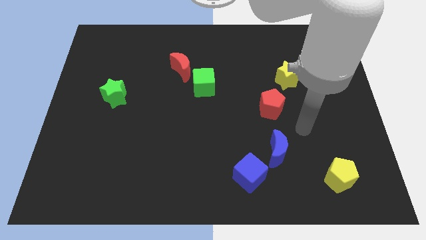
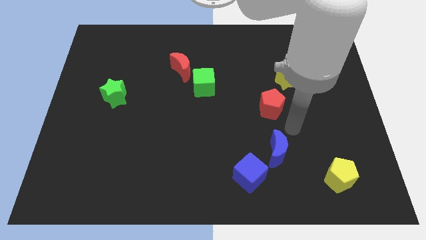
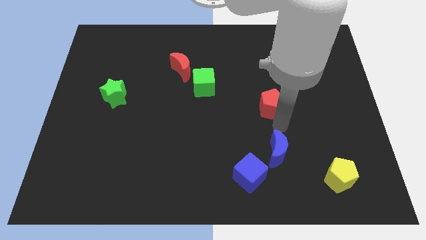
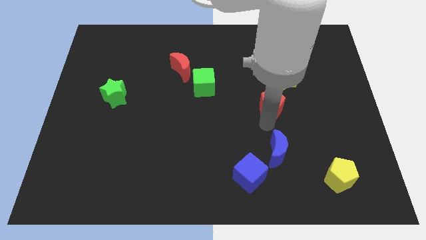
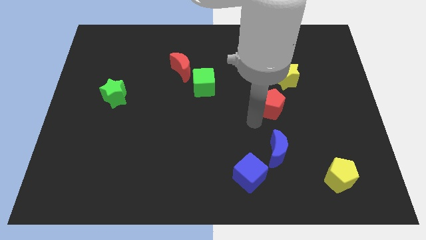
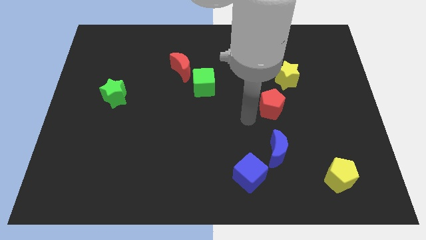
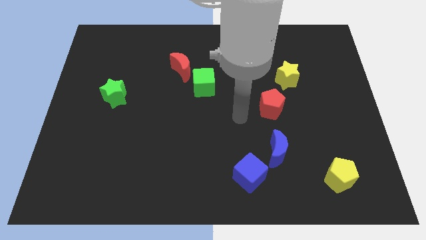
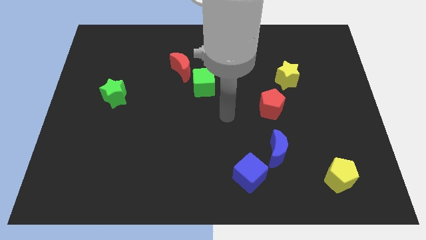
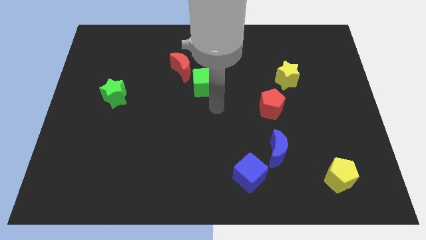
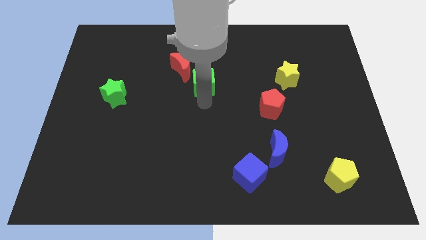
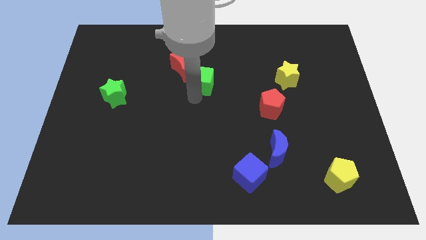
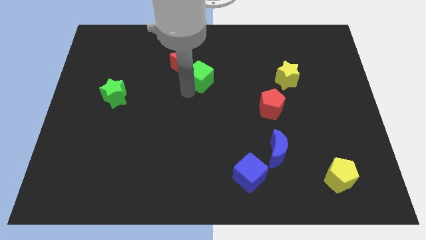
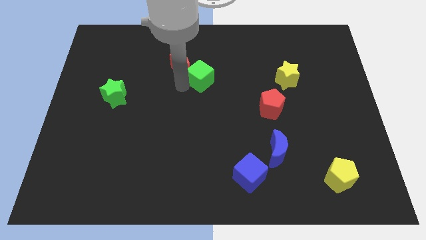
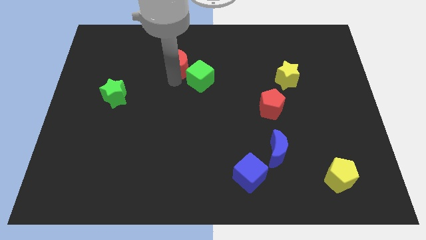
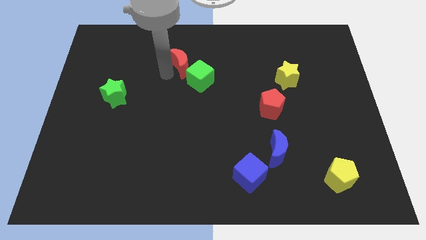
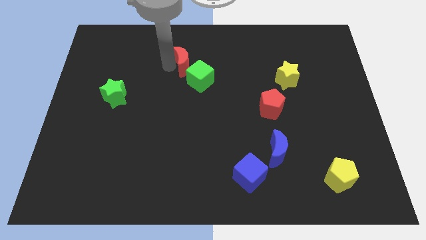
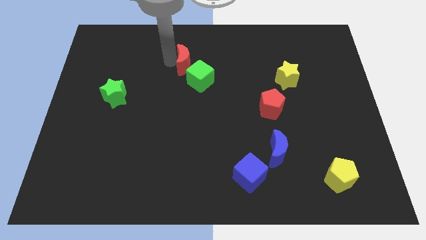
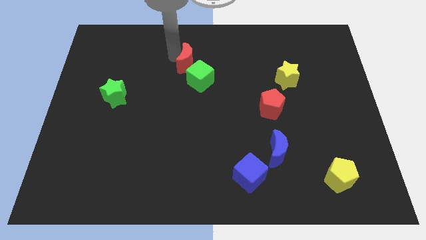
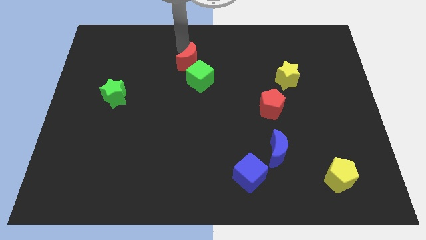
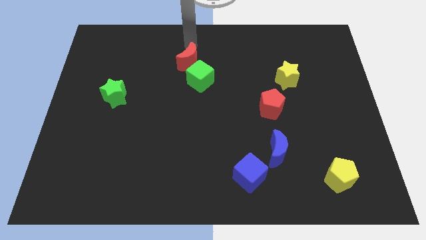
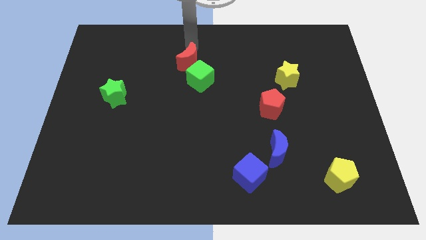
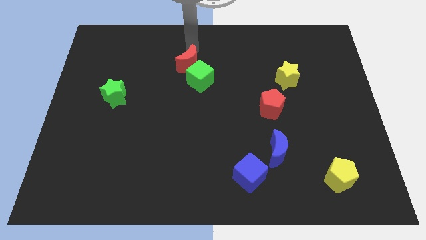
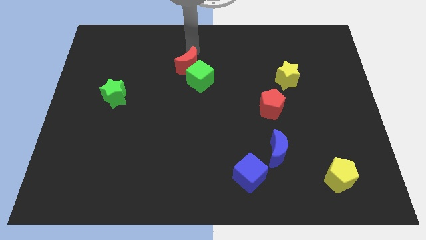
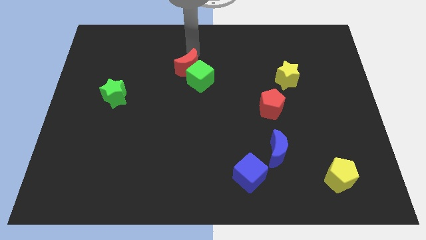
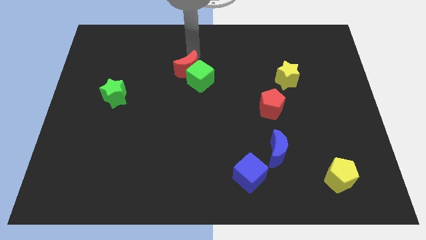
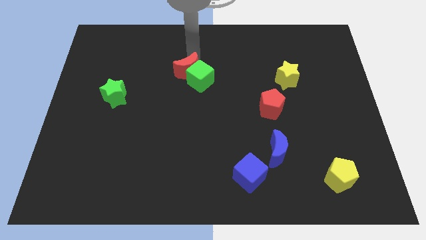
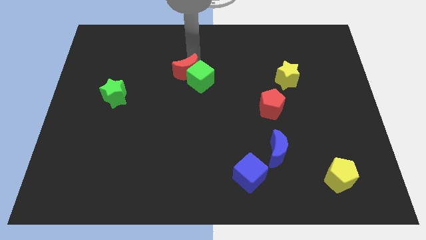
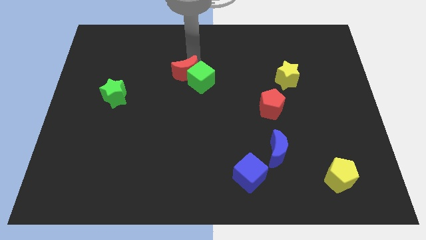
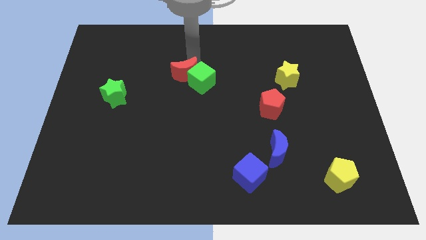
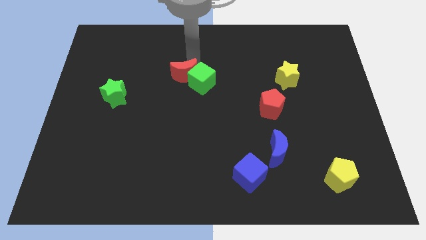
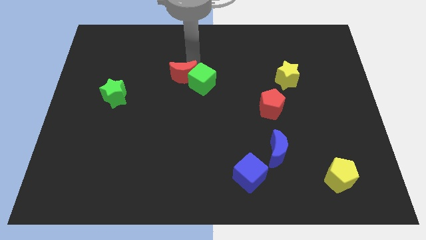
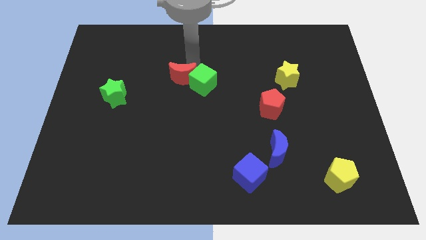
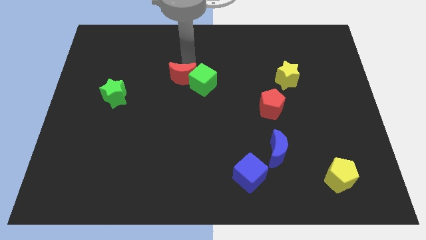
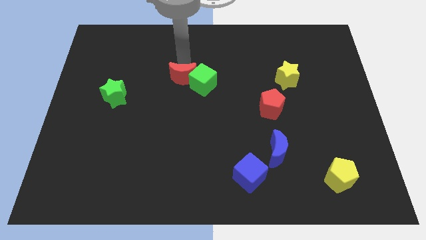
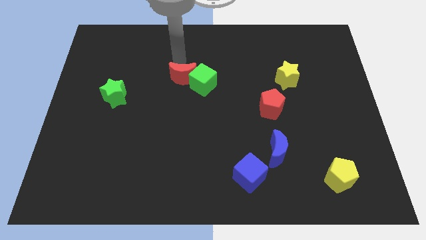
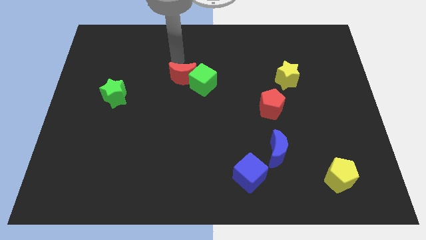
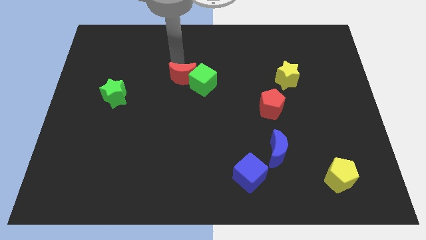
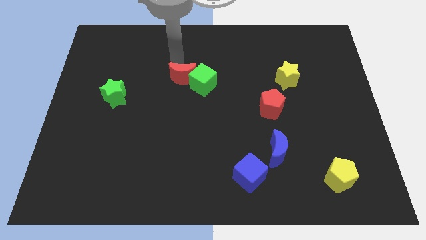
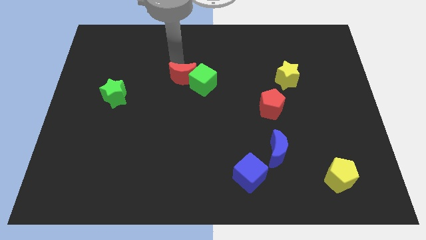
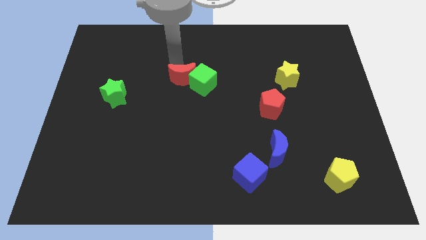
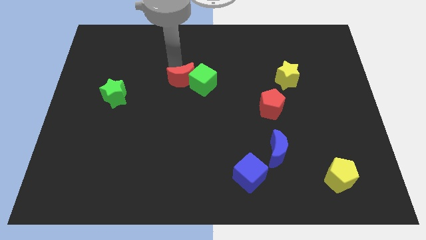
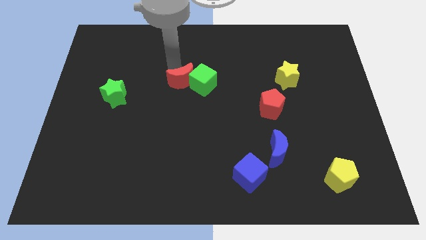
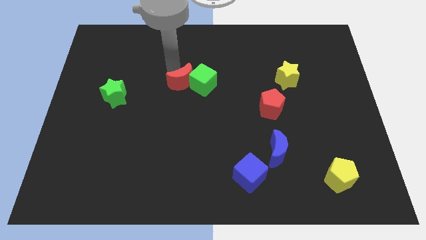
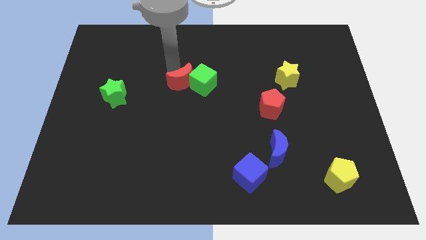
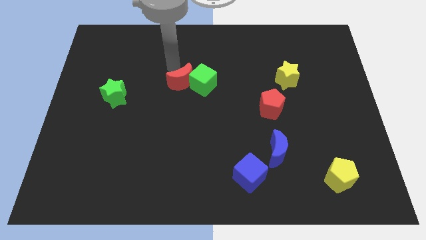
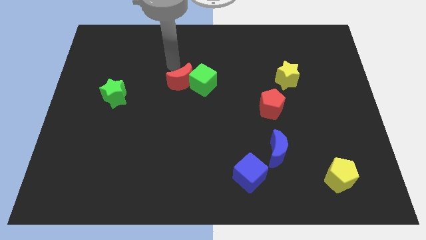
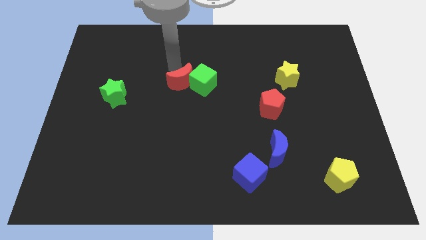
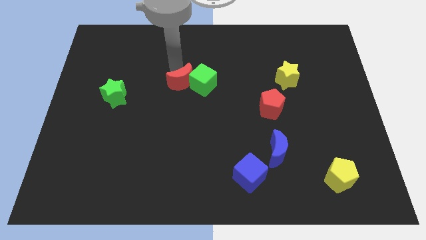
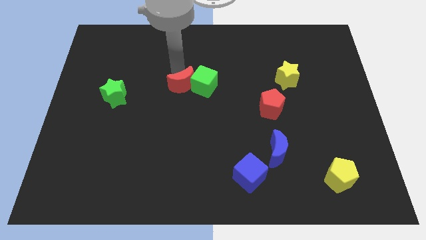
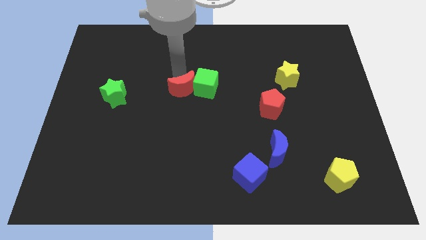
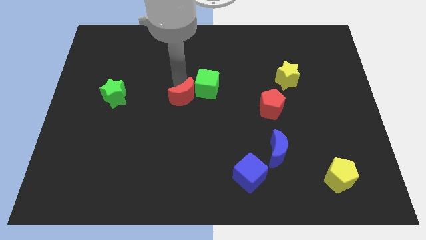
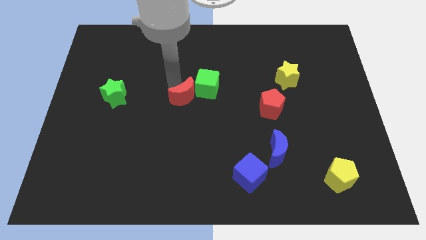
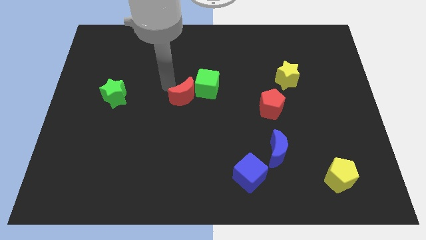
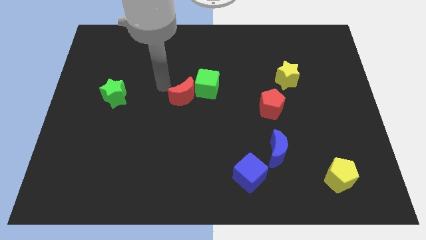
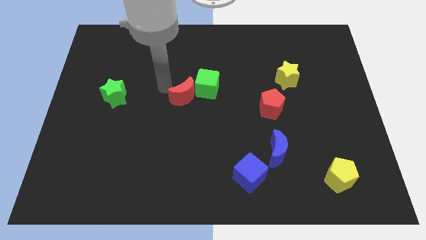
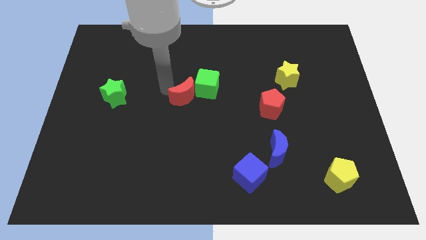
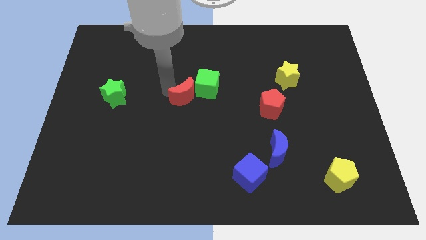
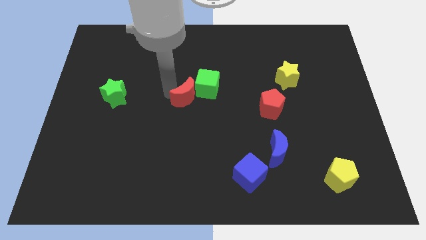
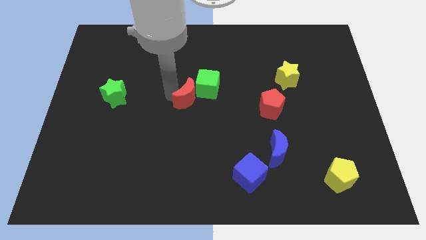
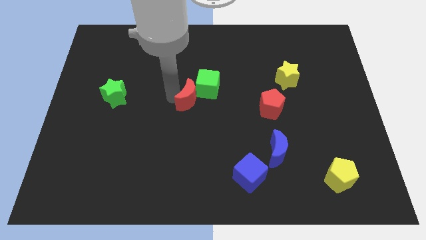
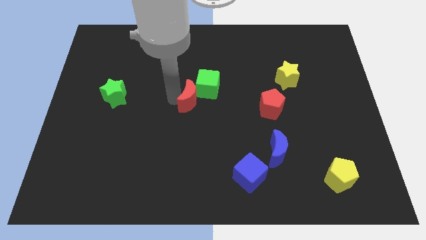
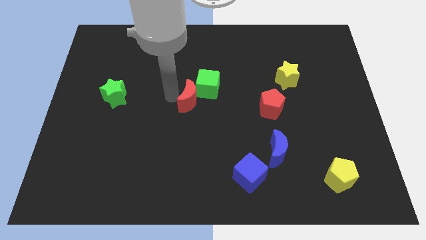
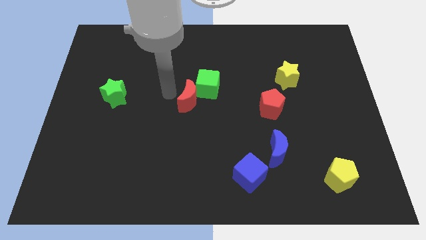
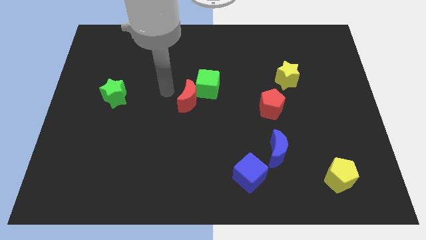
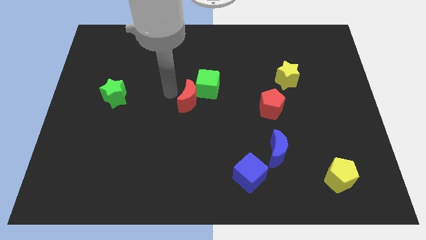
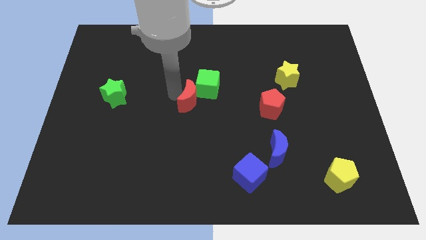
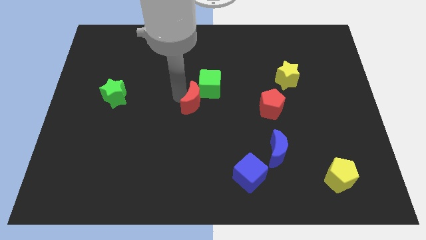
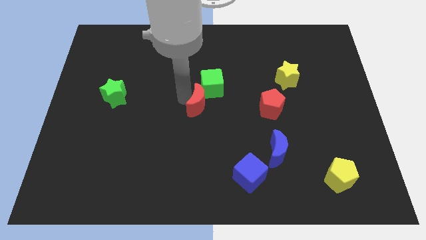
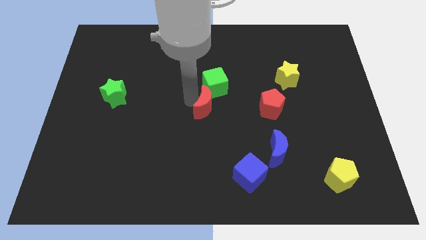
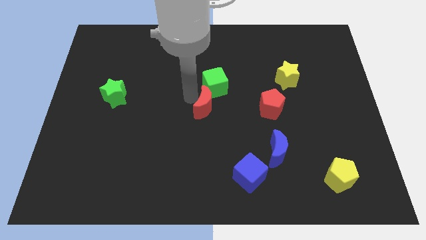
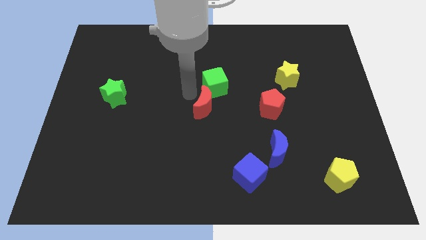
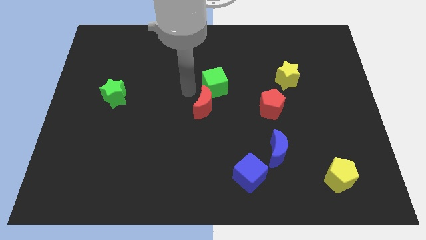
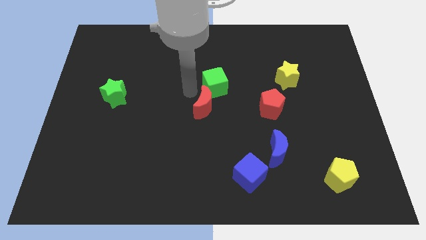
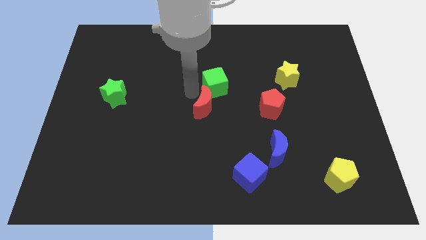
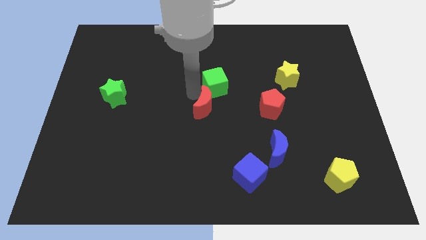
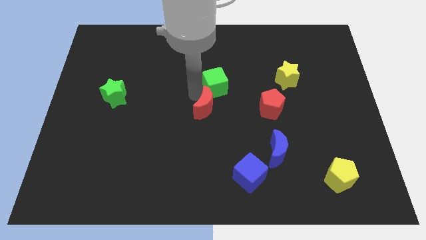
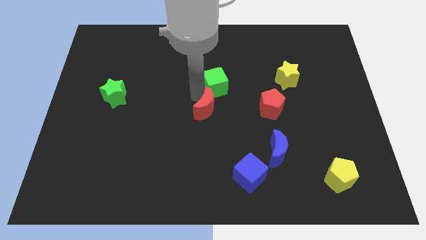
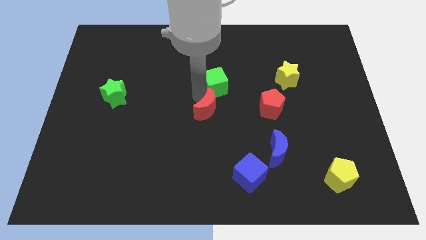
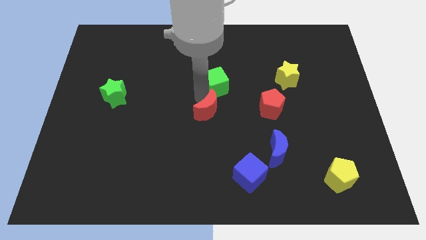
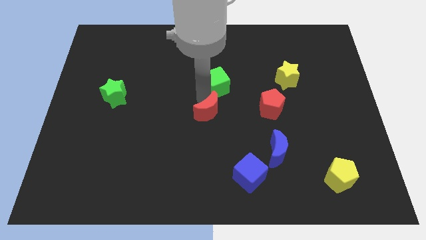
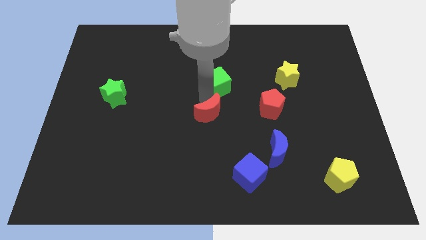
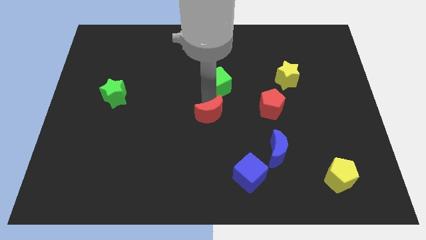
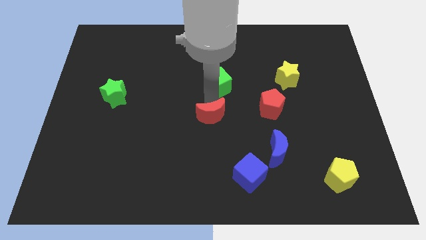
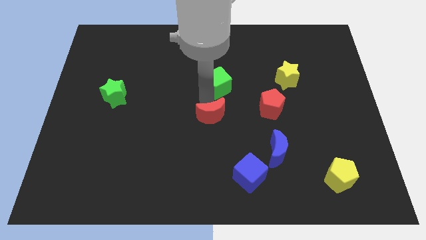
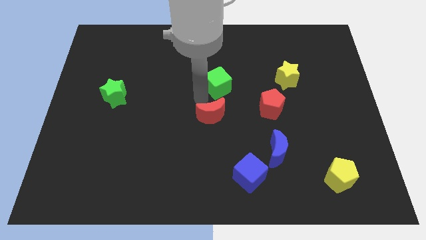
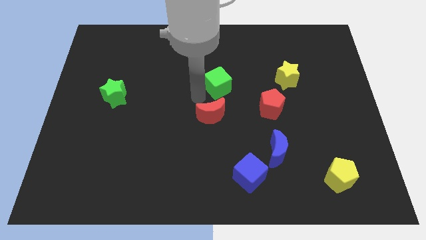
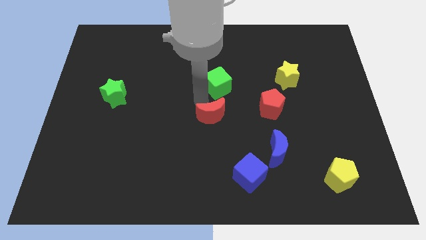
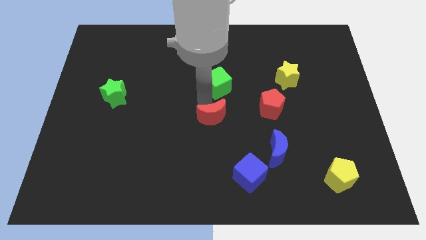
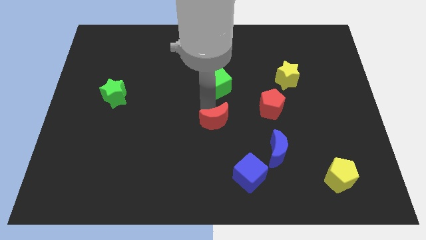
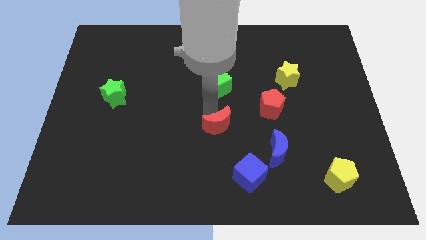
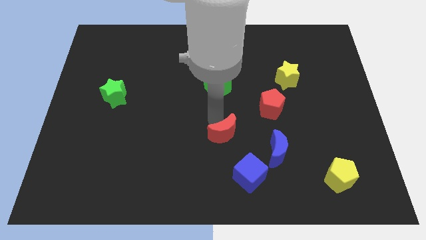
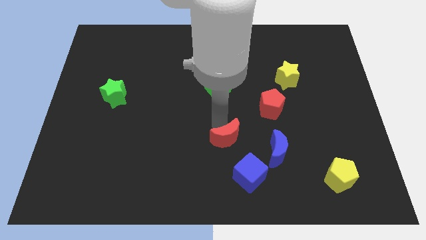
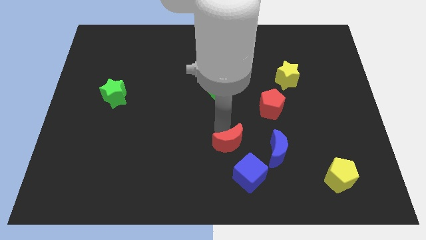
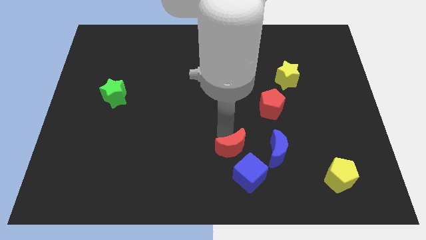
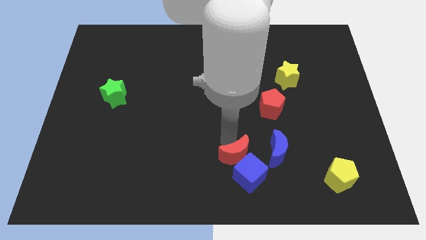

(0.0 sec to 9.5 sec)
move the red moon close to the blue cube
